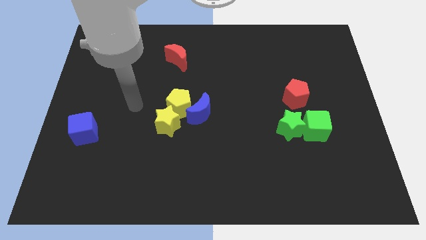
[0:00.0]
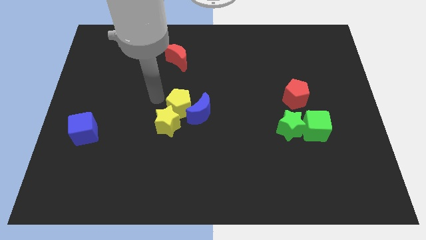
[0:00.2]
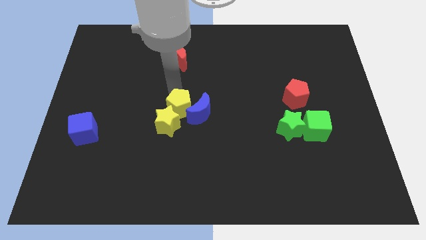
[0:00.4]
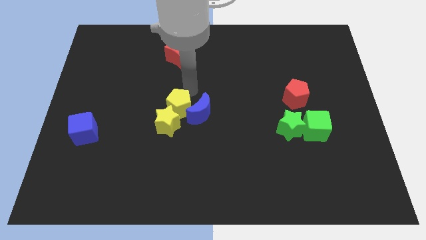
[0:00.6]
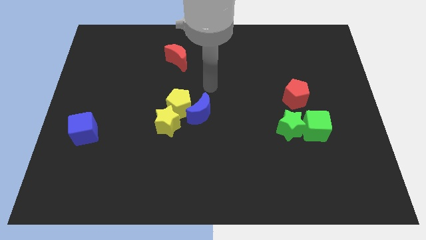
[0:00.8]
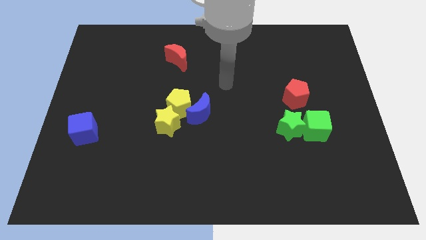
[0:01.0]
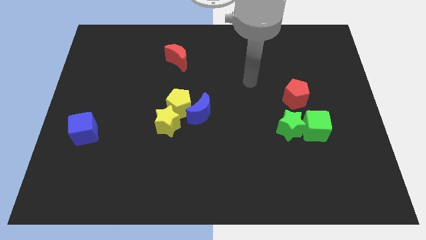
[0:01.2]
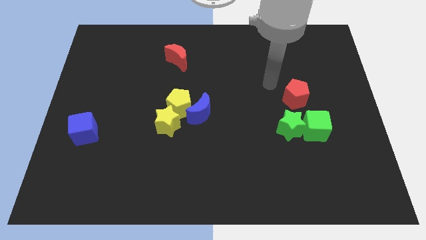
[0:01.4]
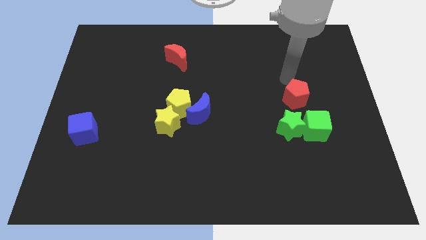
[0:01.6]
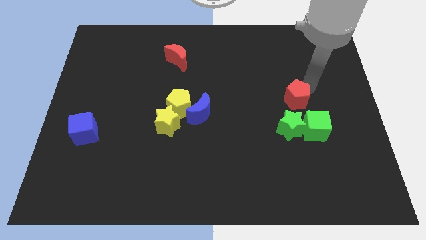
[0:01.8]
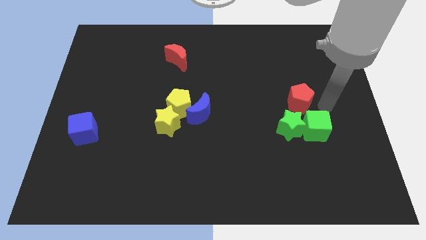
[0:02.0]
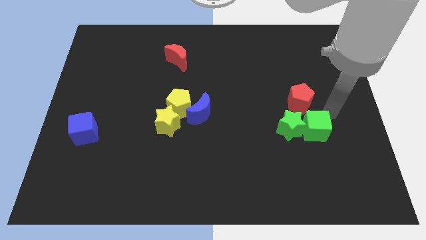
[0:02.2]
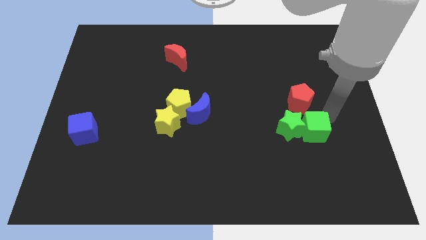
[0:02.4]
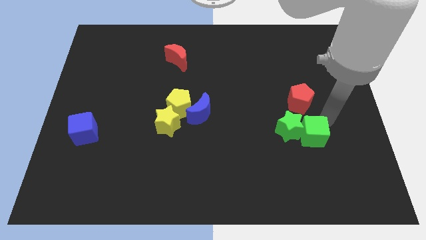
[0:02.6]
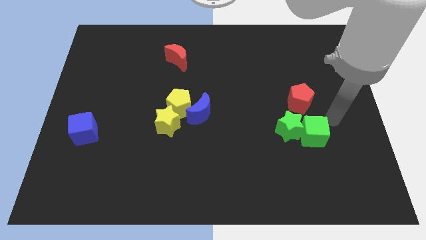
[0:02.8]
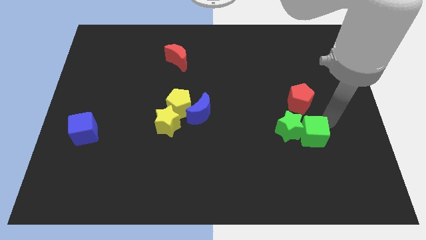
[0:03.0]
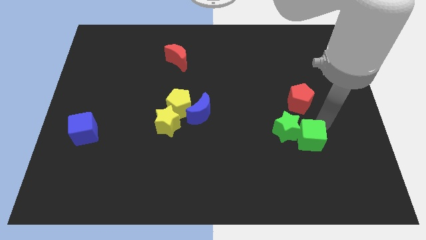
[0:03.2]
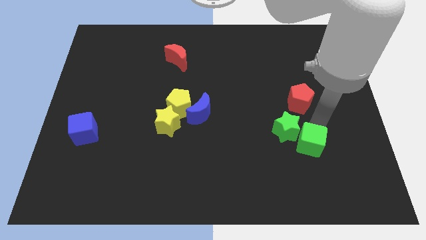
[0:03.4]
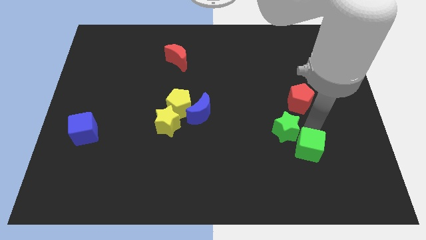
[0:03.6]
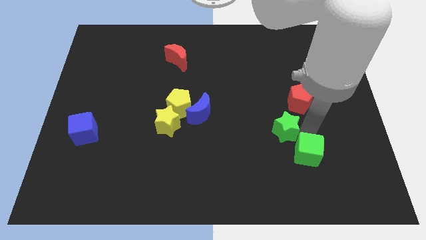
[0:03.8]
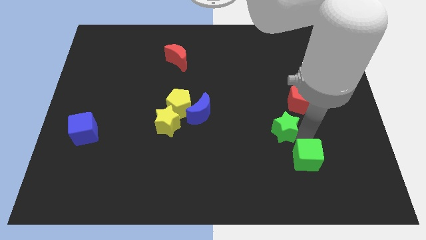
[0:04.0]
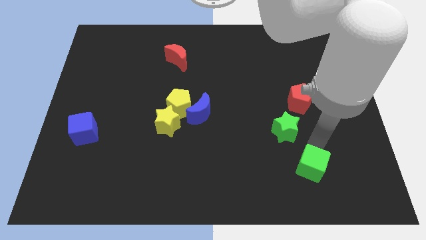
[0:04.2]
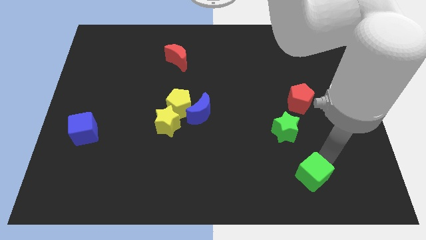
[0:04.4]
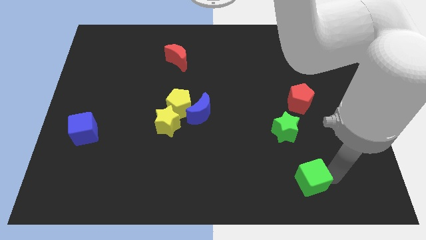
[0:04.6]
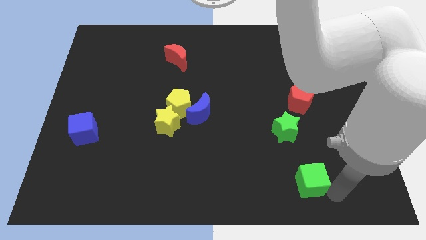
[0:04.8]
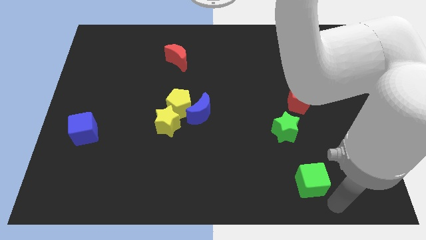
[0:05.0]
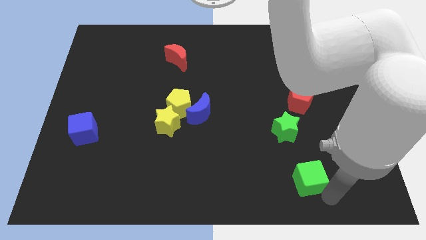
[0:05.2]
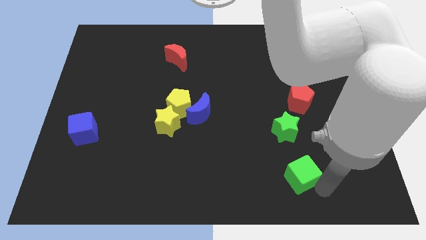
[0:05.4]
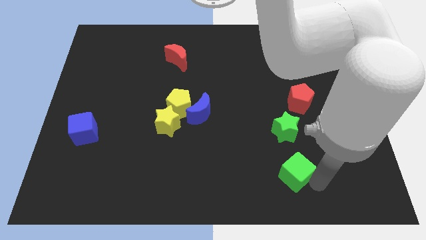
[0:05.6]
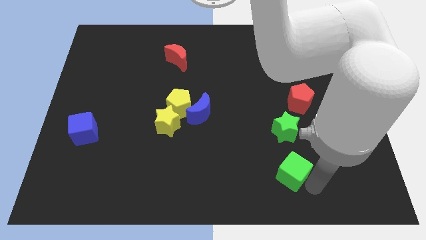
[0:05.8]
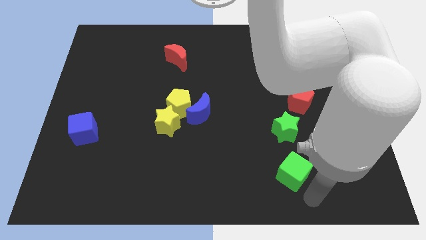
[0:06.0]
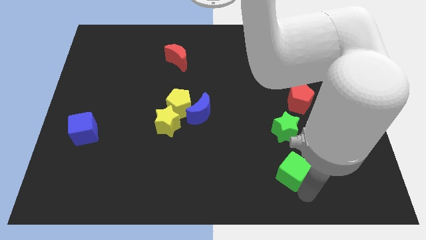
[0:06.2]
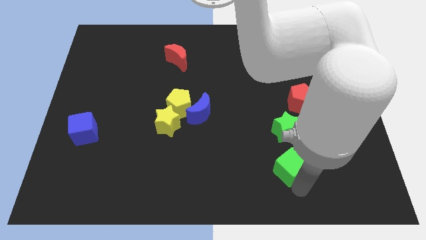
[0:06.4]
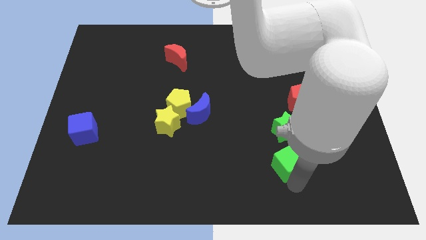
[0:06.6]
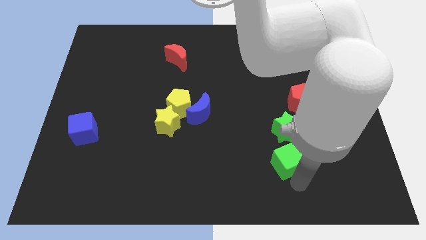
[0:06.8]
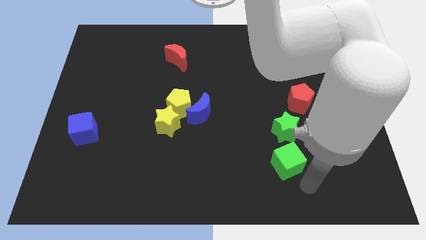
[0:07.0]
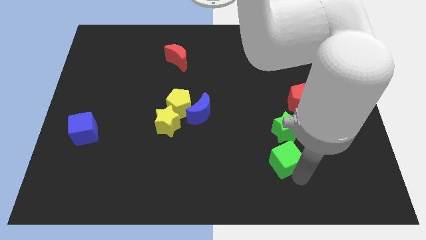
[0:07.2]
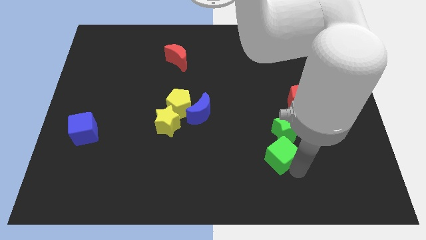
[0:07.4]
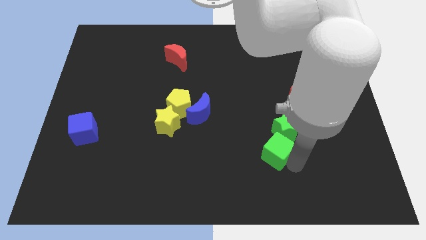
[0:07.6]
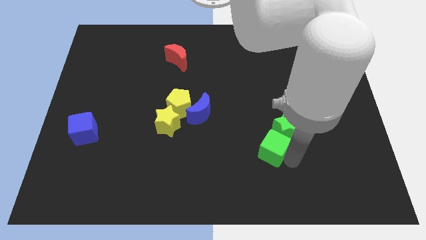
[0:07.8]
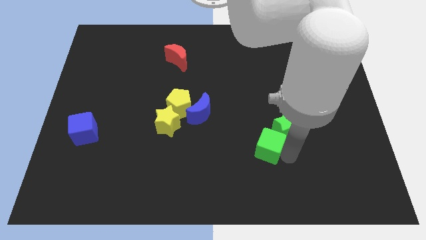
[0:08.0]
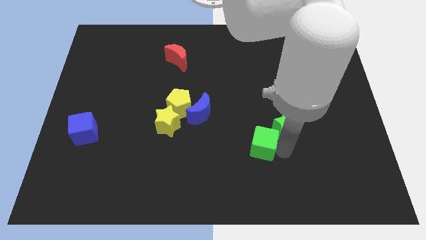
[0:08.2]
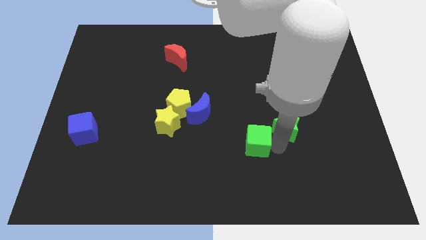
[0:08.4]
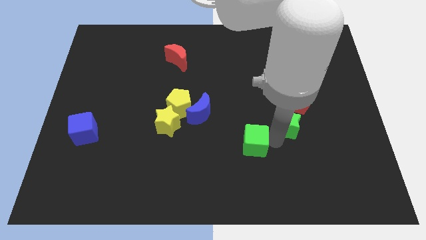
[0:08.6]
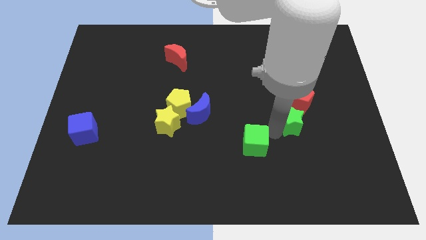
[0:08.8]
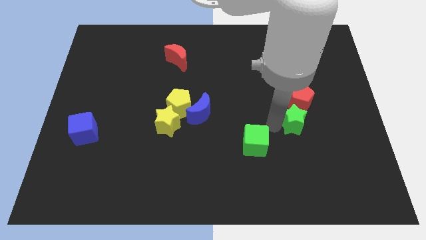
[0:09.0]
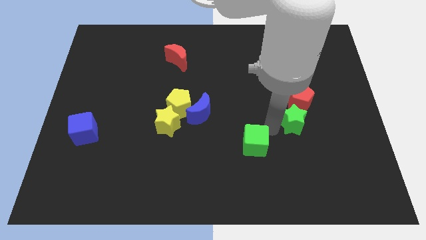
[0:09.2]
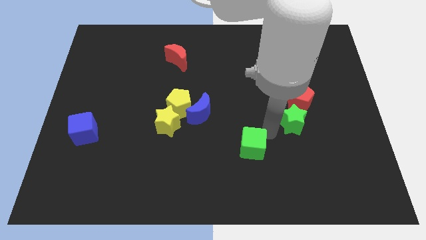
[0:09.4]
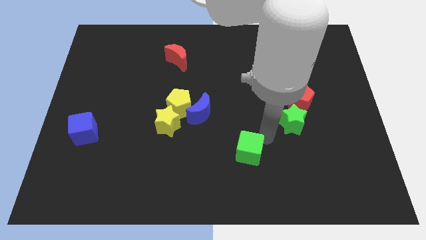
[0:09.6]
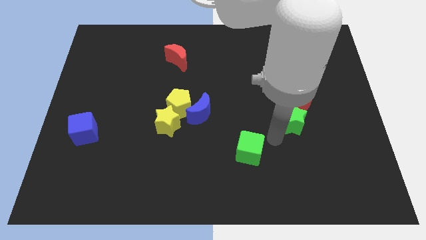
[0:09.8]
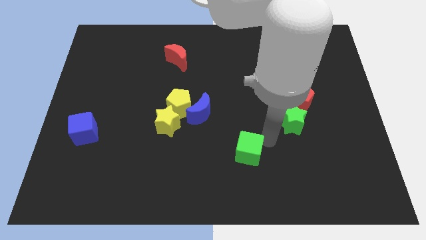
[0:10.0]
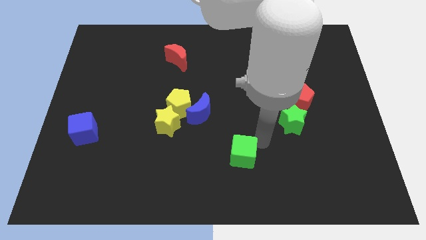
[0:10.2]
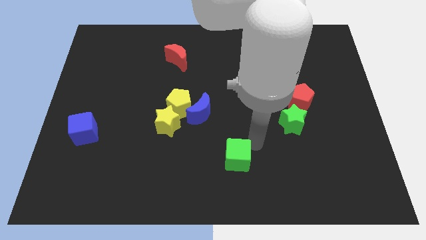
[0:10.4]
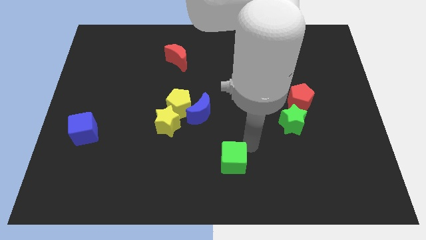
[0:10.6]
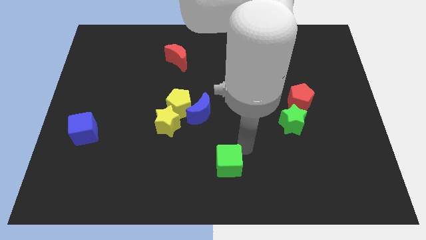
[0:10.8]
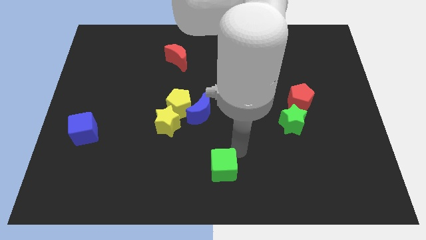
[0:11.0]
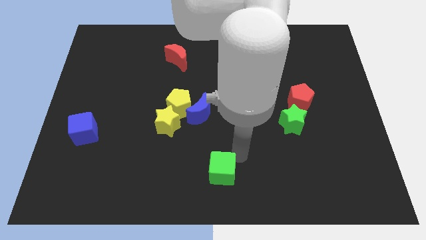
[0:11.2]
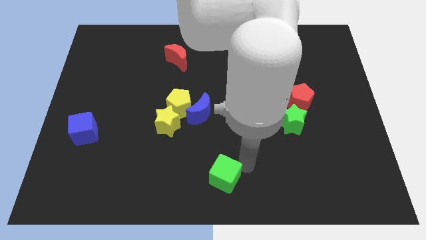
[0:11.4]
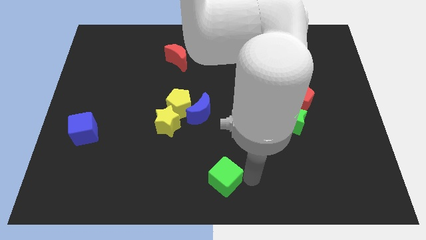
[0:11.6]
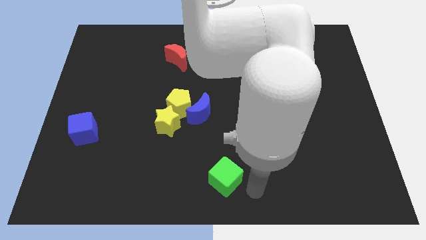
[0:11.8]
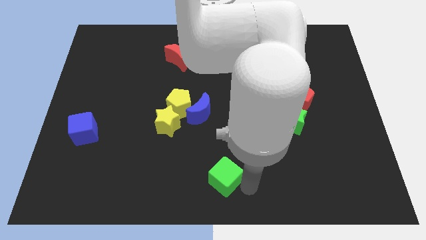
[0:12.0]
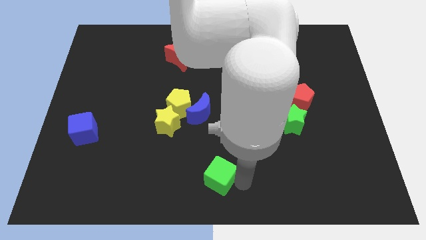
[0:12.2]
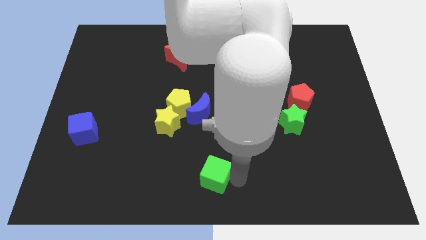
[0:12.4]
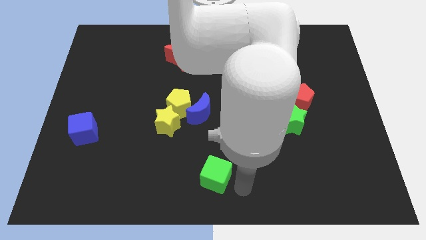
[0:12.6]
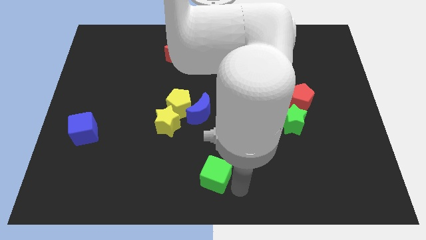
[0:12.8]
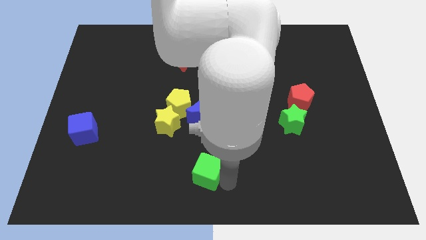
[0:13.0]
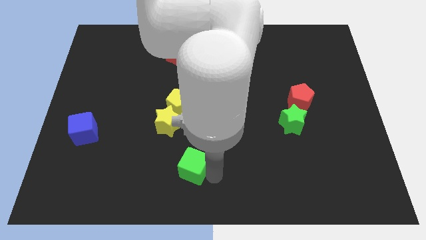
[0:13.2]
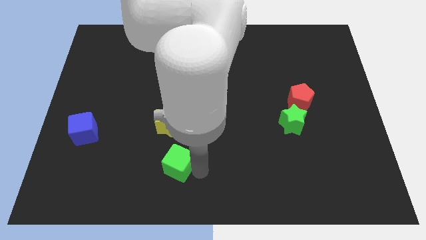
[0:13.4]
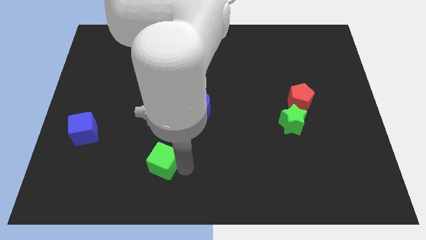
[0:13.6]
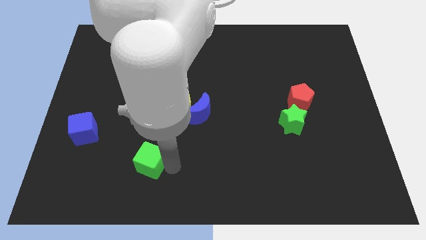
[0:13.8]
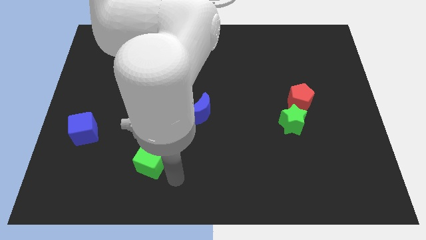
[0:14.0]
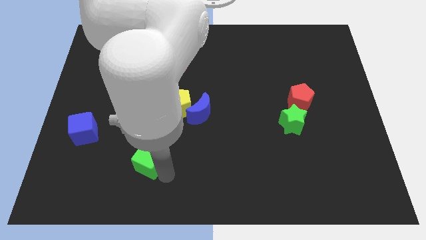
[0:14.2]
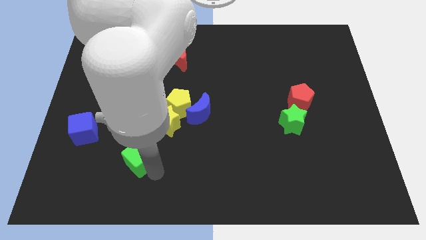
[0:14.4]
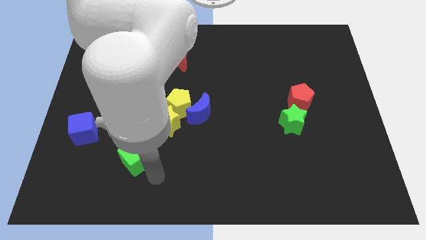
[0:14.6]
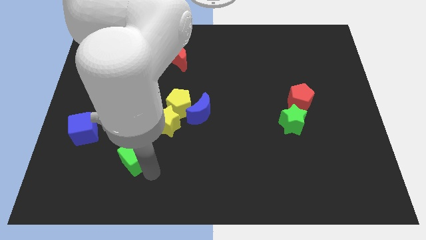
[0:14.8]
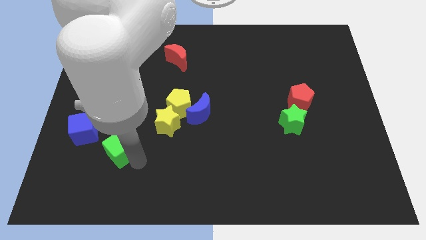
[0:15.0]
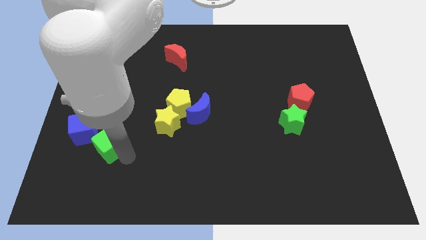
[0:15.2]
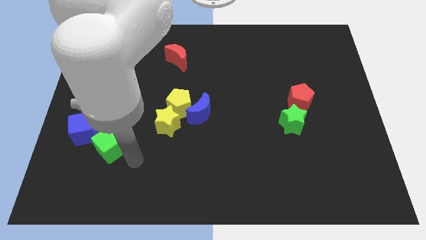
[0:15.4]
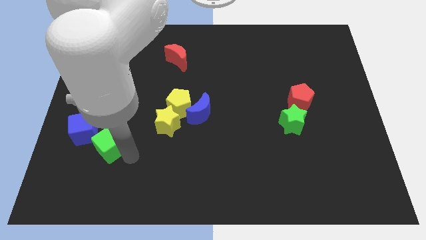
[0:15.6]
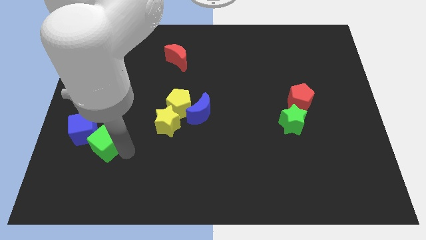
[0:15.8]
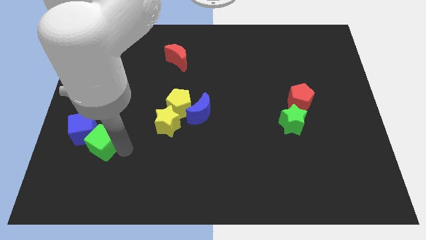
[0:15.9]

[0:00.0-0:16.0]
move the green cube towards the blue cube
